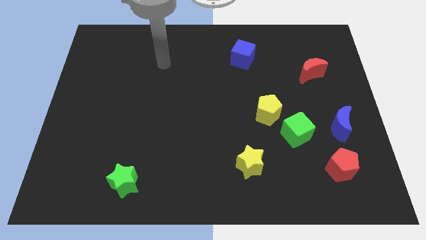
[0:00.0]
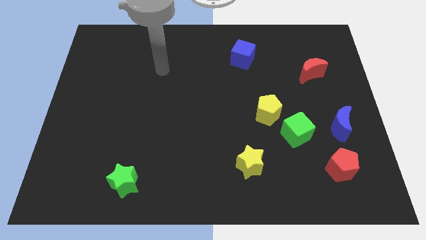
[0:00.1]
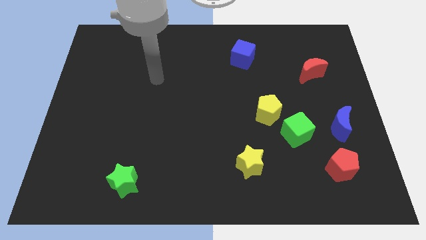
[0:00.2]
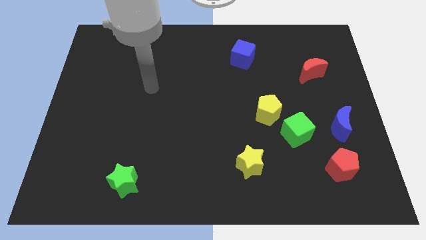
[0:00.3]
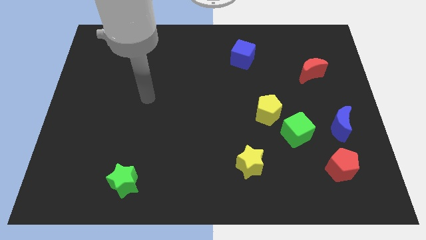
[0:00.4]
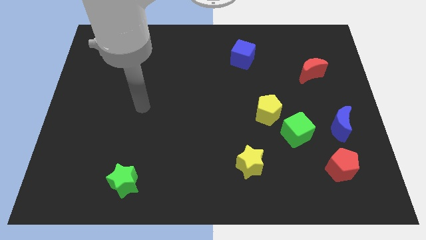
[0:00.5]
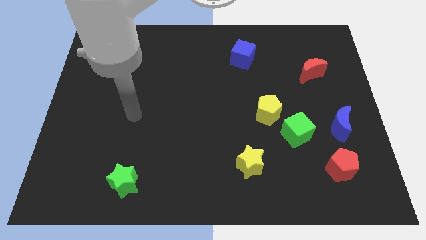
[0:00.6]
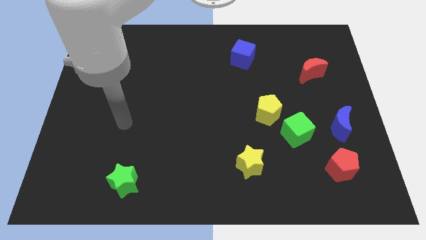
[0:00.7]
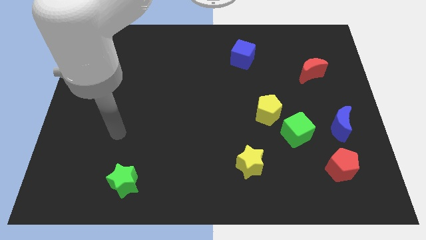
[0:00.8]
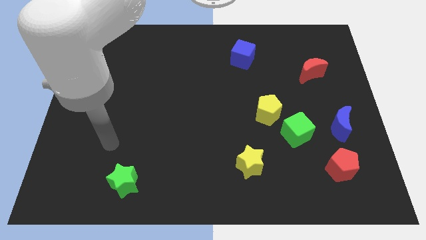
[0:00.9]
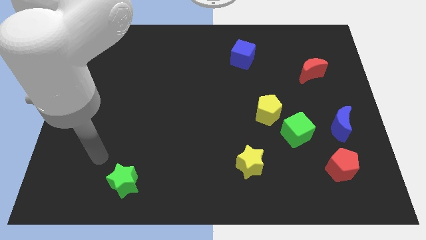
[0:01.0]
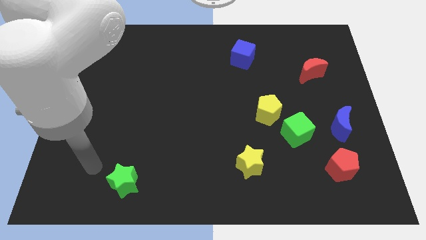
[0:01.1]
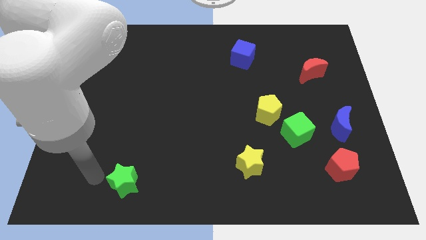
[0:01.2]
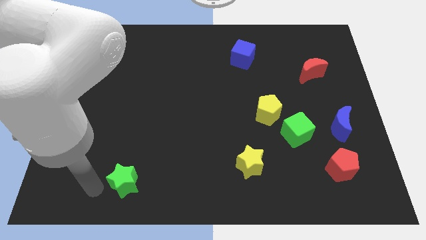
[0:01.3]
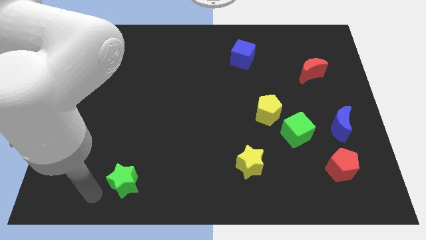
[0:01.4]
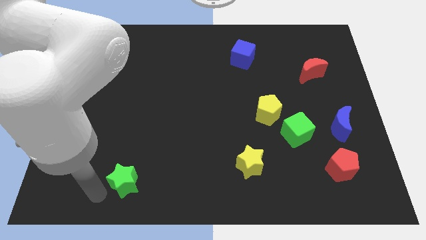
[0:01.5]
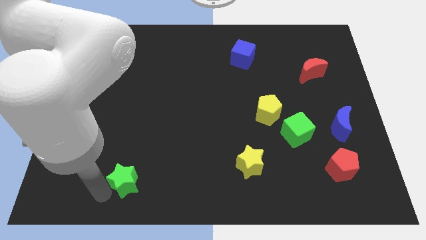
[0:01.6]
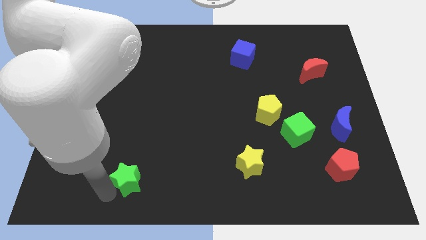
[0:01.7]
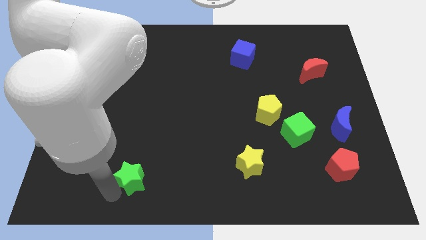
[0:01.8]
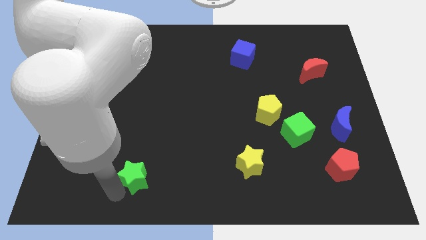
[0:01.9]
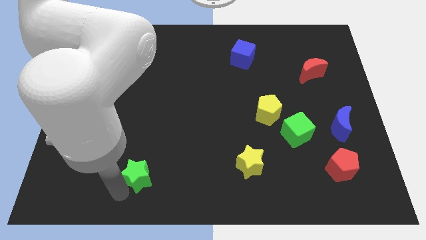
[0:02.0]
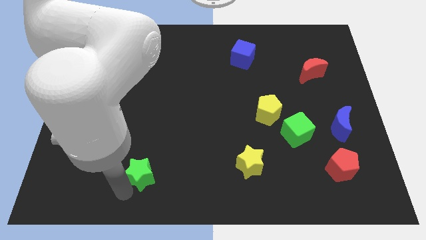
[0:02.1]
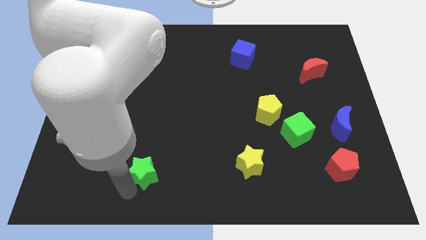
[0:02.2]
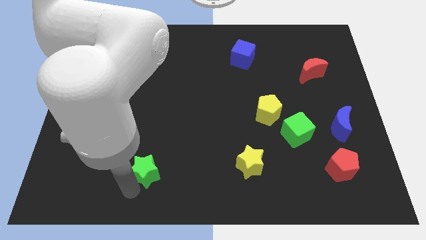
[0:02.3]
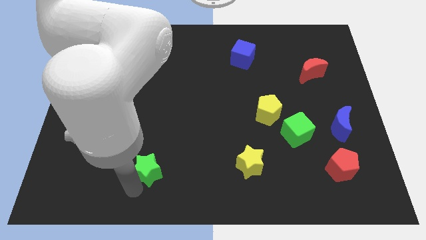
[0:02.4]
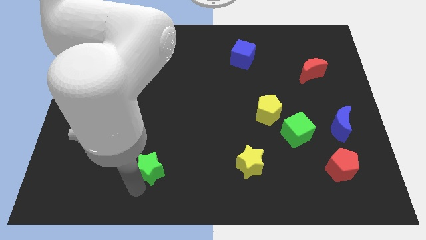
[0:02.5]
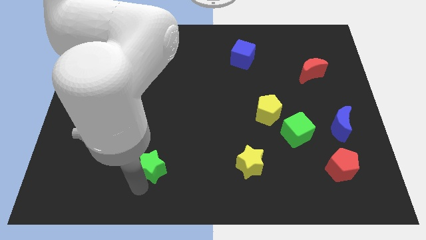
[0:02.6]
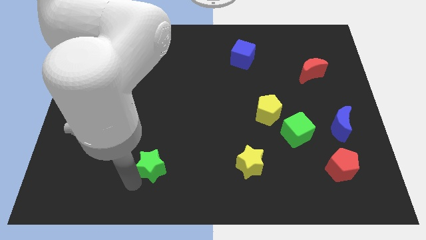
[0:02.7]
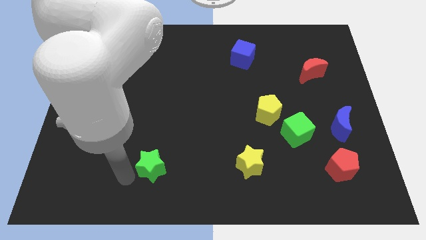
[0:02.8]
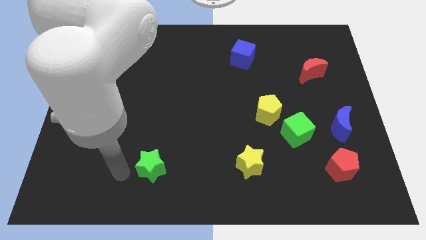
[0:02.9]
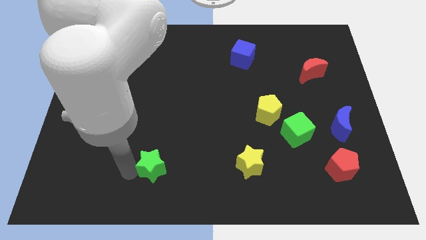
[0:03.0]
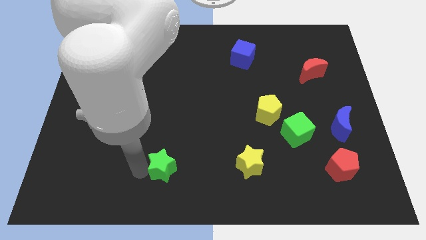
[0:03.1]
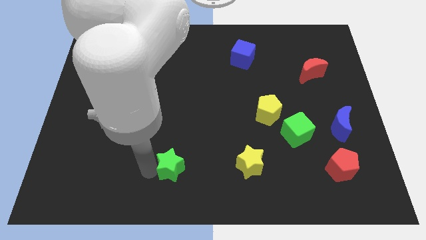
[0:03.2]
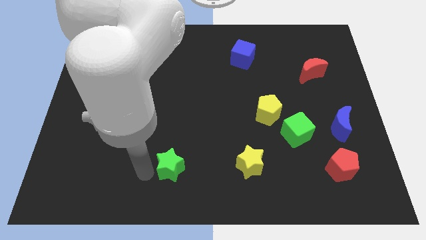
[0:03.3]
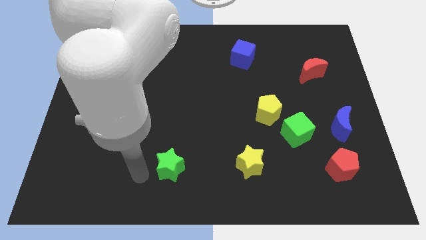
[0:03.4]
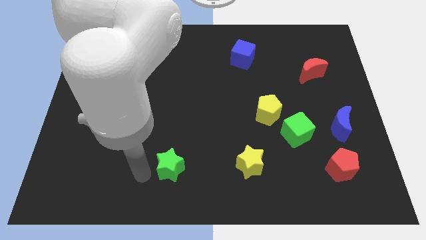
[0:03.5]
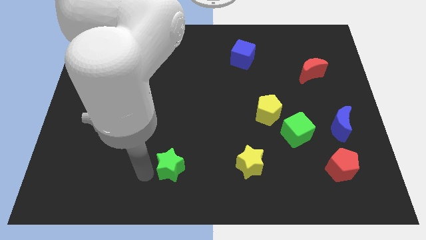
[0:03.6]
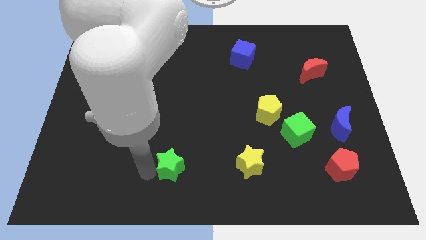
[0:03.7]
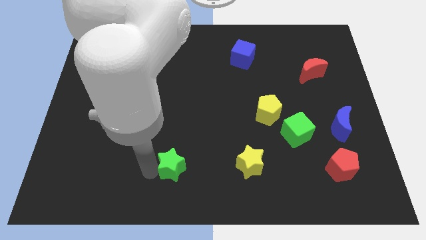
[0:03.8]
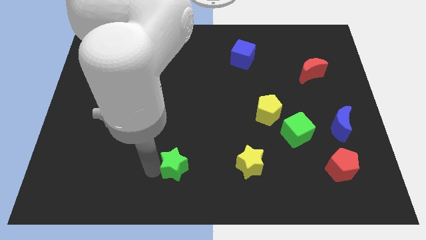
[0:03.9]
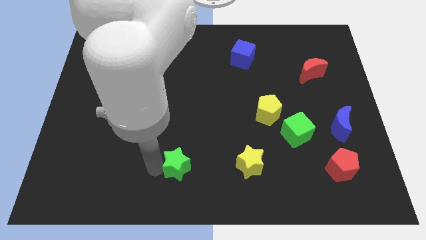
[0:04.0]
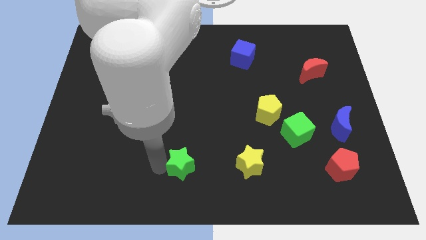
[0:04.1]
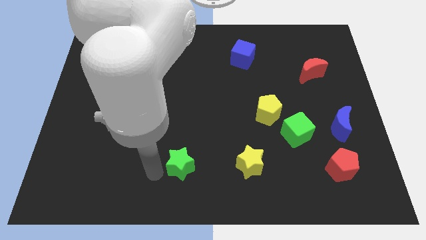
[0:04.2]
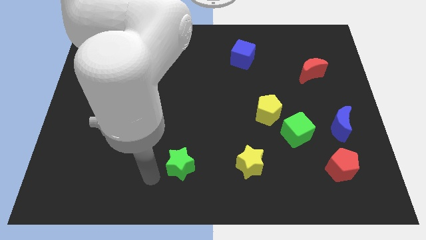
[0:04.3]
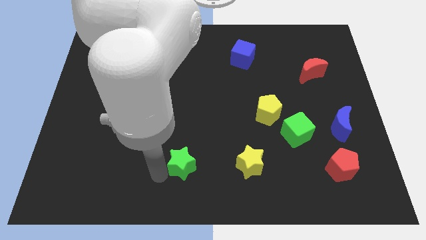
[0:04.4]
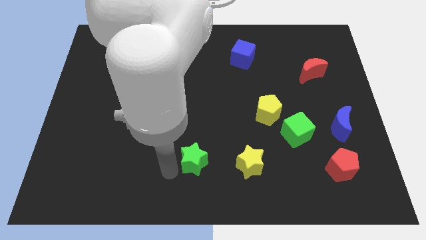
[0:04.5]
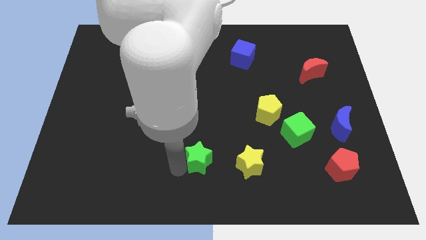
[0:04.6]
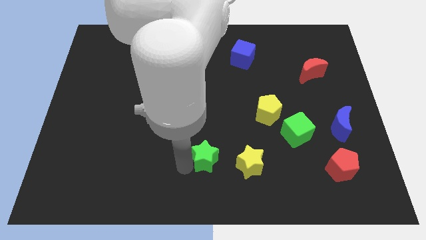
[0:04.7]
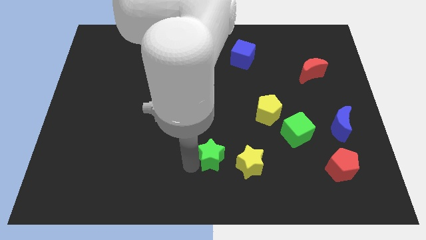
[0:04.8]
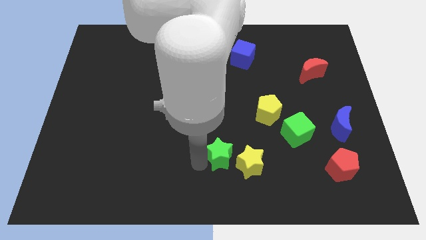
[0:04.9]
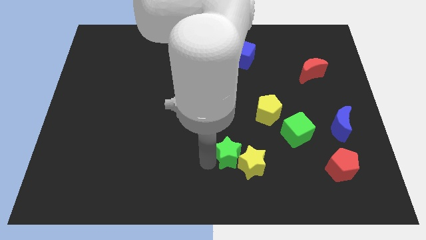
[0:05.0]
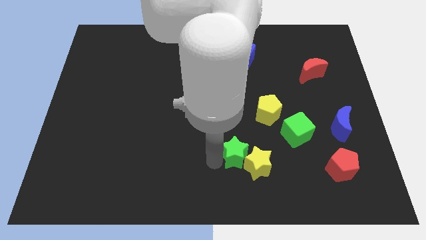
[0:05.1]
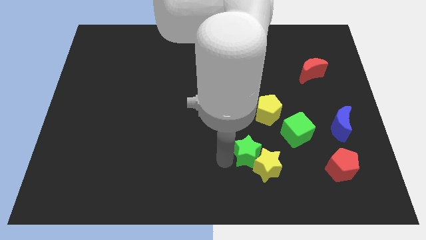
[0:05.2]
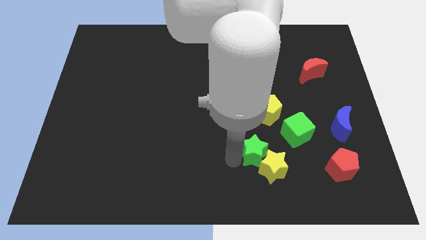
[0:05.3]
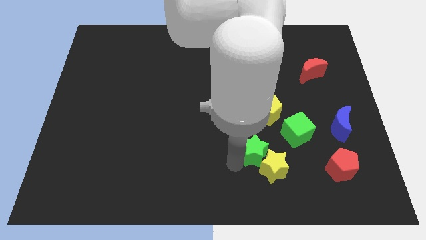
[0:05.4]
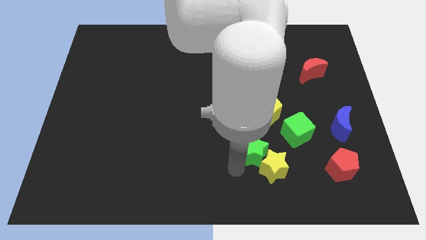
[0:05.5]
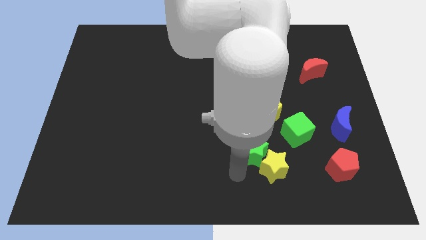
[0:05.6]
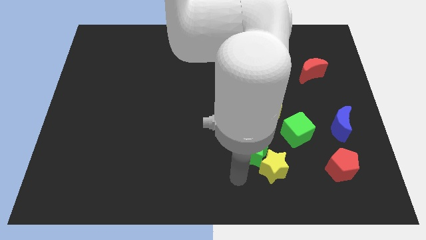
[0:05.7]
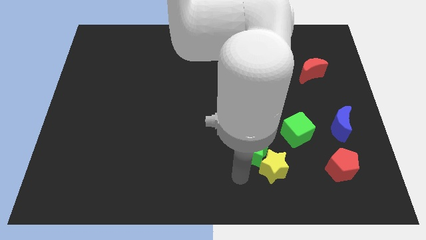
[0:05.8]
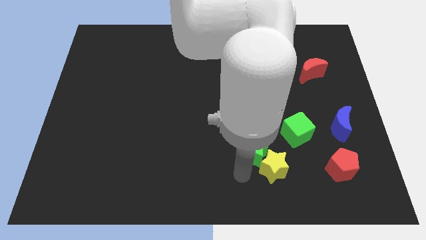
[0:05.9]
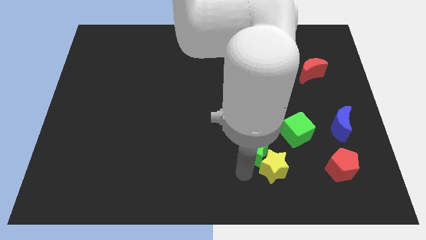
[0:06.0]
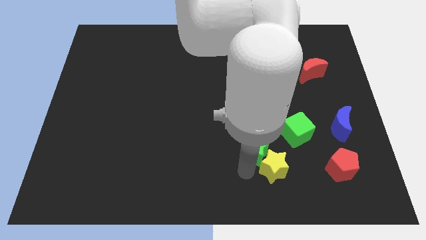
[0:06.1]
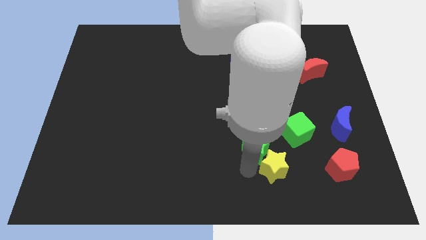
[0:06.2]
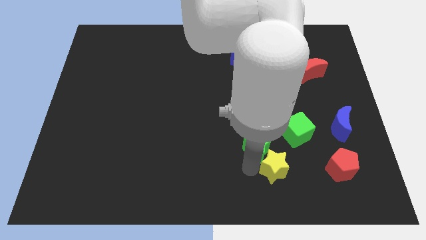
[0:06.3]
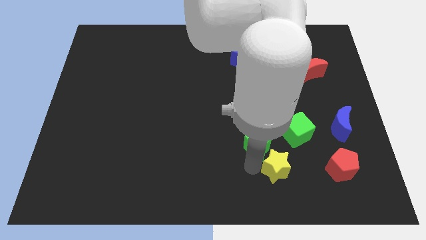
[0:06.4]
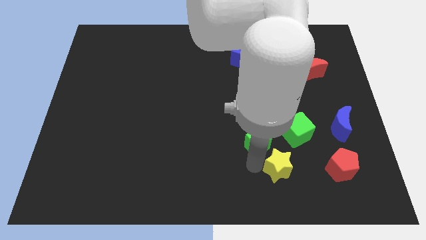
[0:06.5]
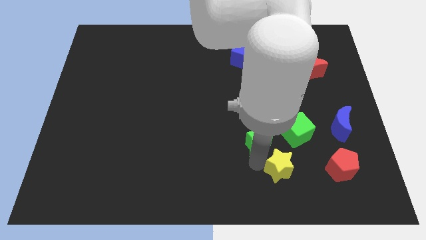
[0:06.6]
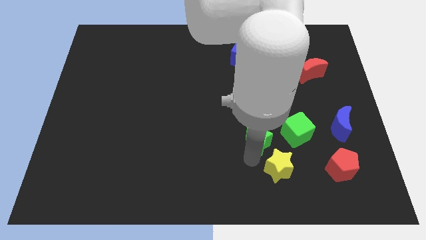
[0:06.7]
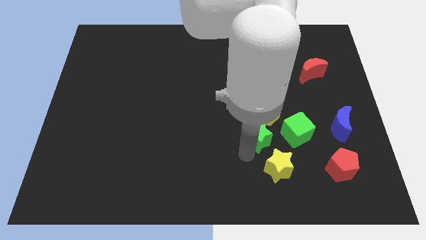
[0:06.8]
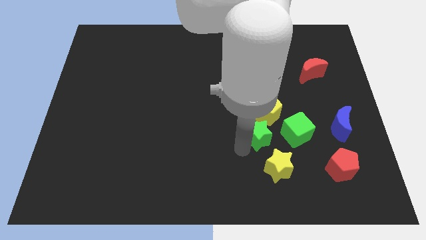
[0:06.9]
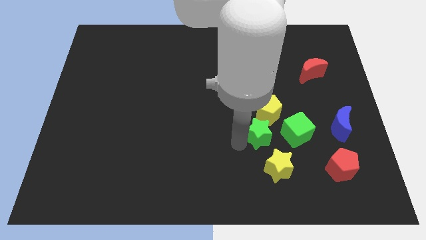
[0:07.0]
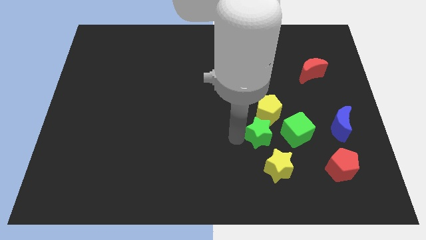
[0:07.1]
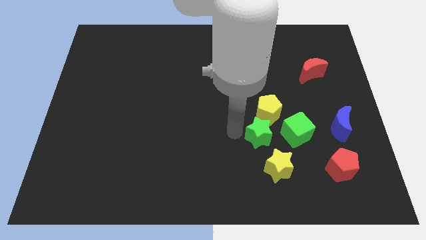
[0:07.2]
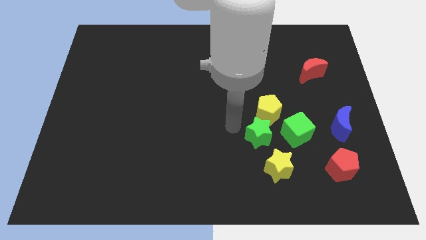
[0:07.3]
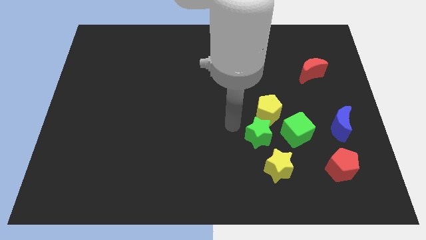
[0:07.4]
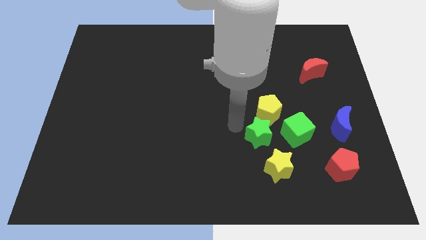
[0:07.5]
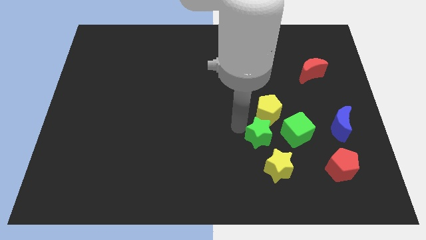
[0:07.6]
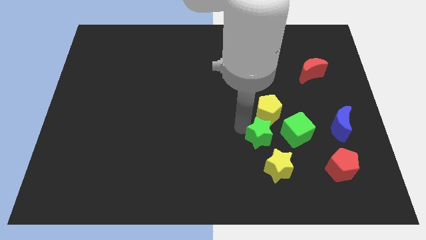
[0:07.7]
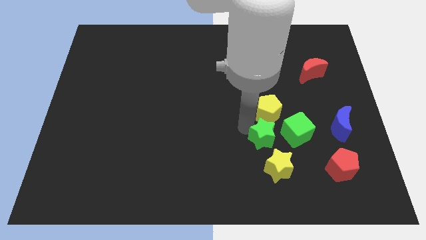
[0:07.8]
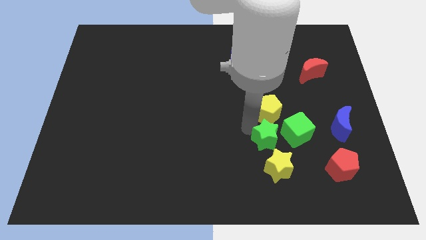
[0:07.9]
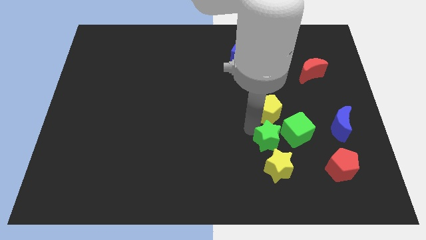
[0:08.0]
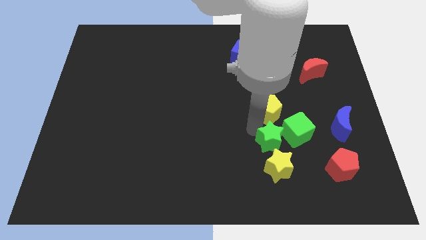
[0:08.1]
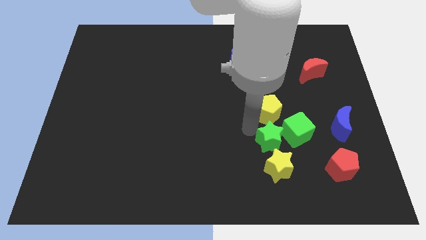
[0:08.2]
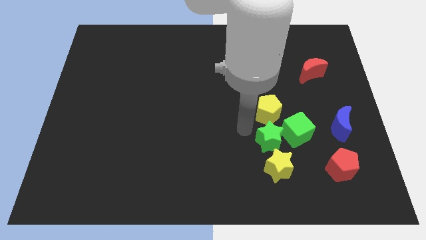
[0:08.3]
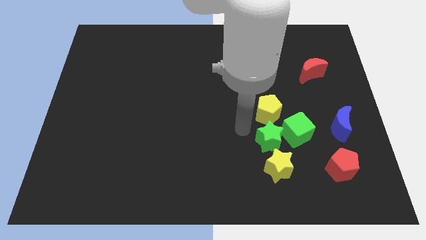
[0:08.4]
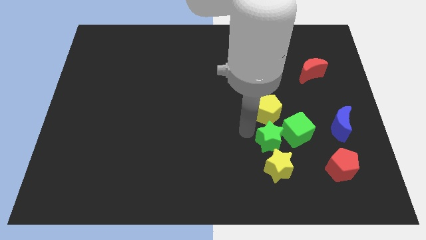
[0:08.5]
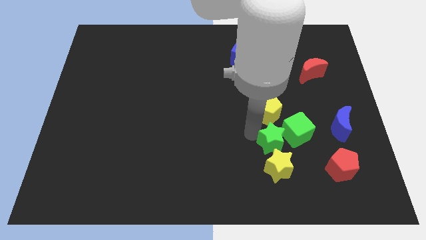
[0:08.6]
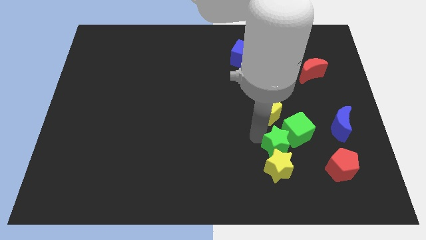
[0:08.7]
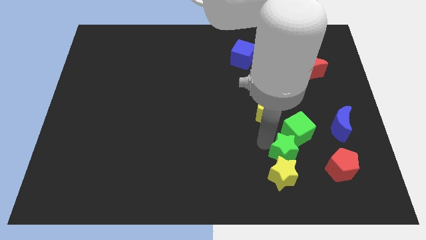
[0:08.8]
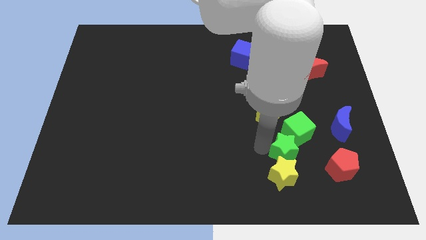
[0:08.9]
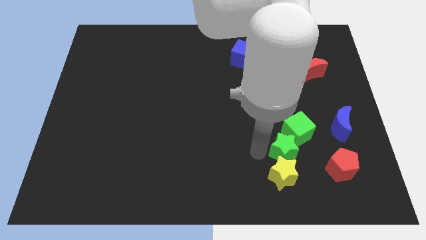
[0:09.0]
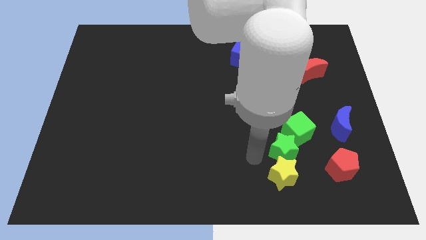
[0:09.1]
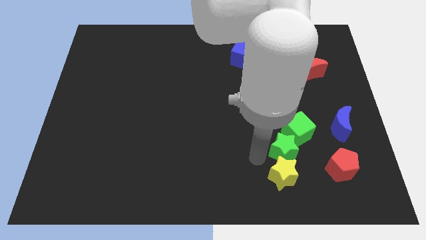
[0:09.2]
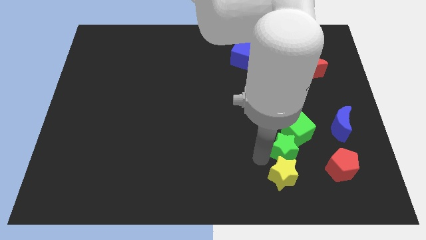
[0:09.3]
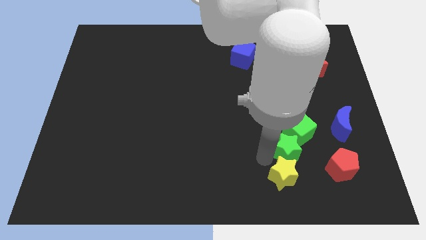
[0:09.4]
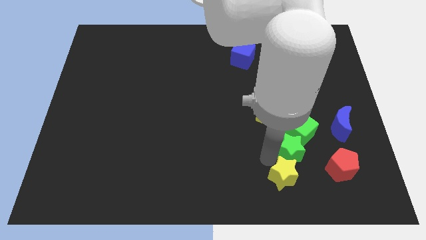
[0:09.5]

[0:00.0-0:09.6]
slide the green star diagonally up and to the left of the red pentagon
